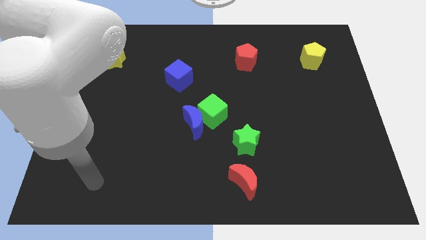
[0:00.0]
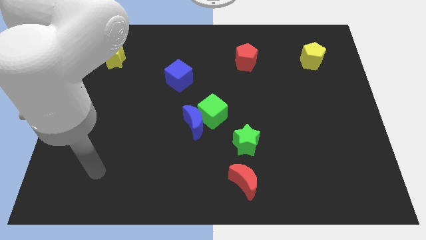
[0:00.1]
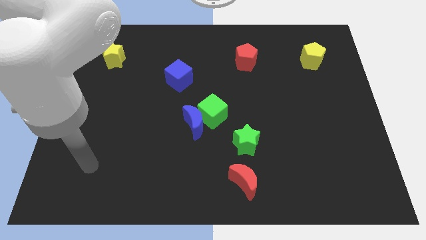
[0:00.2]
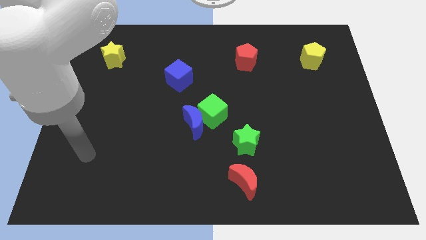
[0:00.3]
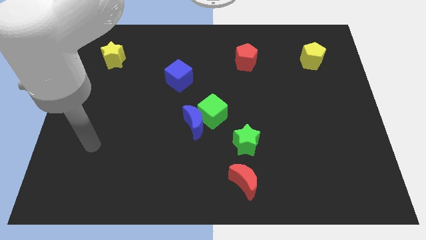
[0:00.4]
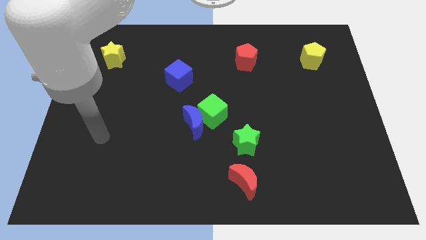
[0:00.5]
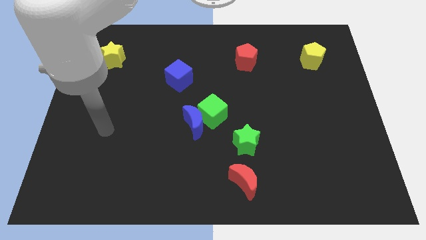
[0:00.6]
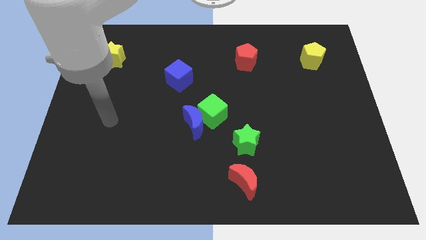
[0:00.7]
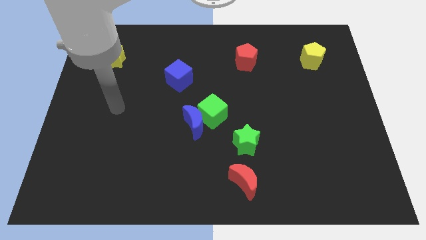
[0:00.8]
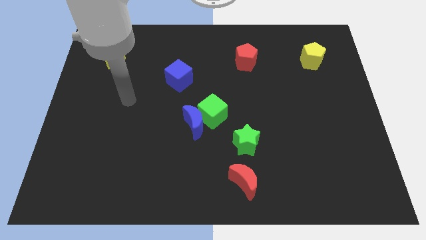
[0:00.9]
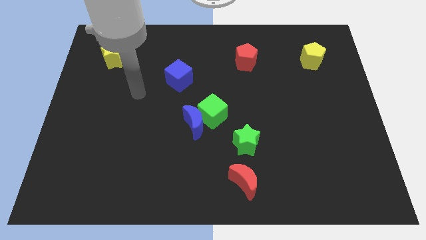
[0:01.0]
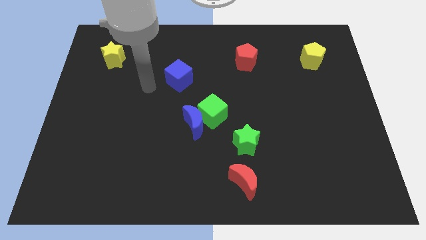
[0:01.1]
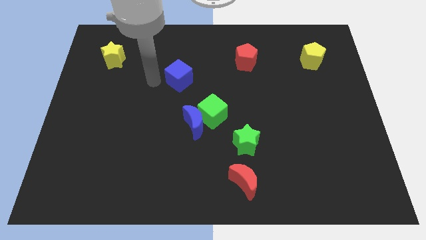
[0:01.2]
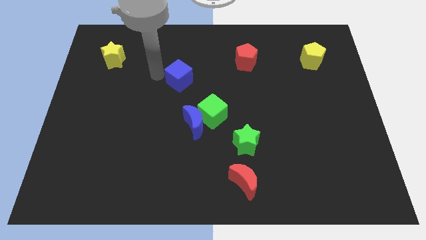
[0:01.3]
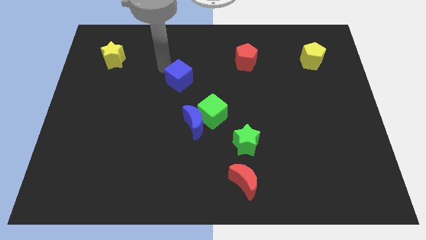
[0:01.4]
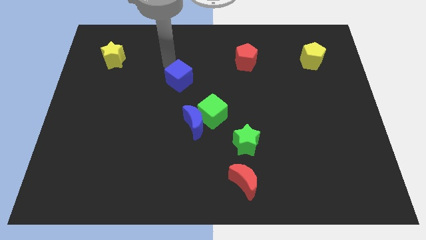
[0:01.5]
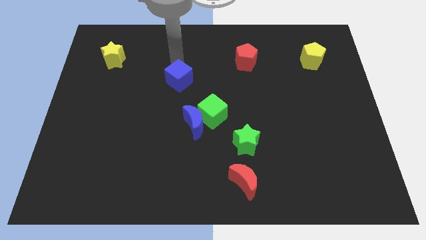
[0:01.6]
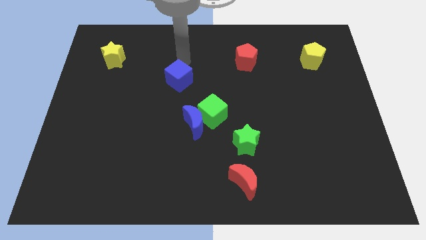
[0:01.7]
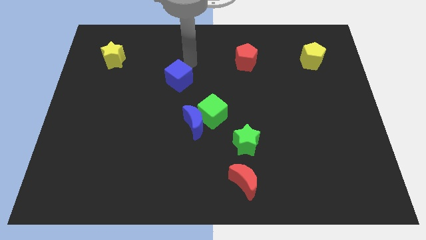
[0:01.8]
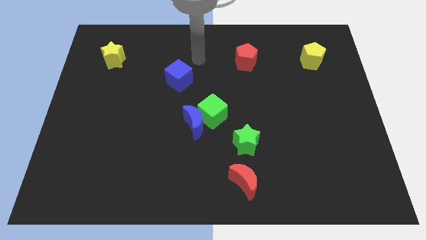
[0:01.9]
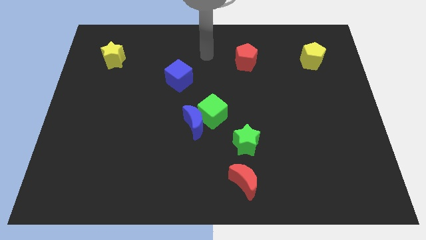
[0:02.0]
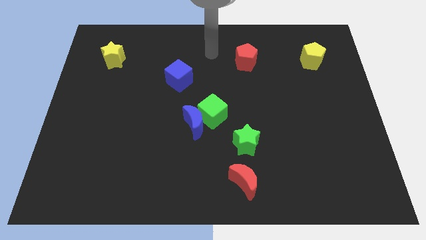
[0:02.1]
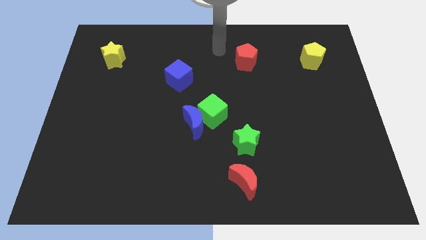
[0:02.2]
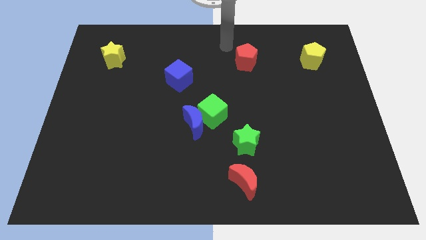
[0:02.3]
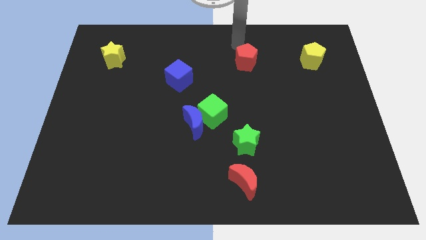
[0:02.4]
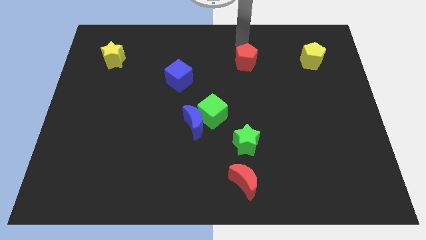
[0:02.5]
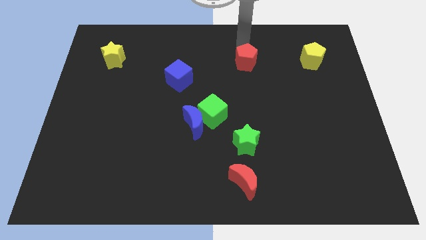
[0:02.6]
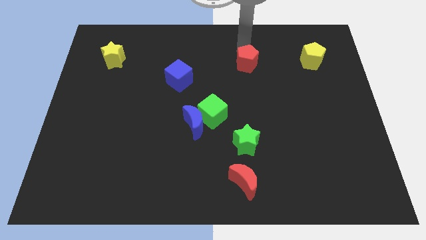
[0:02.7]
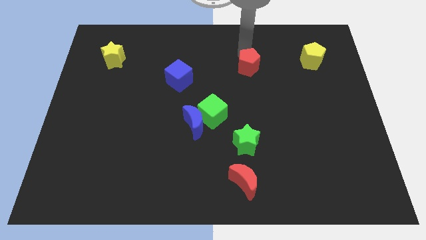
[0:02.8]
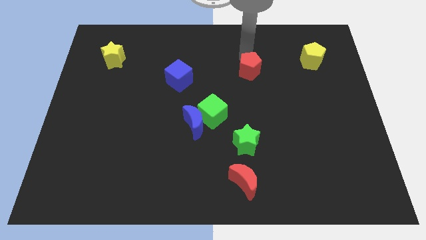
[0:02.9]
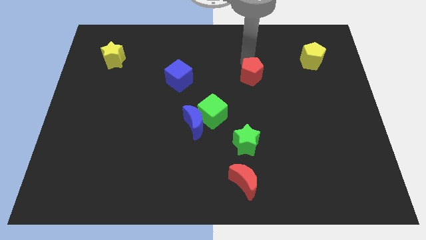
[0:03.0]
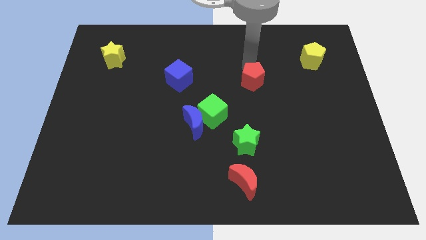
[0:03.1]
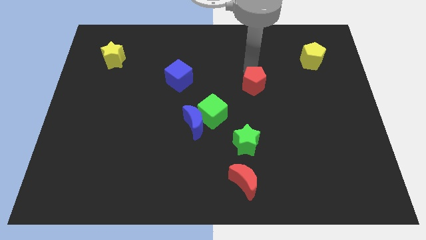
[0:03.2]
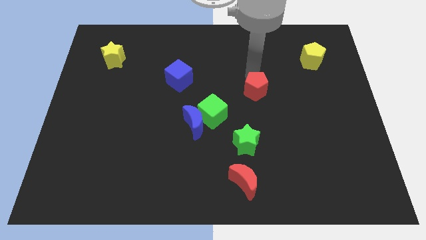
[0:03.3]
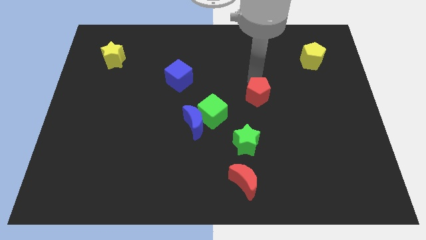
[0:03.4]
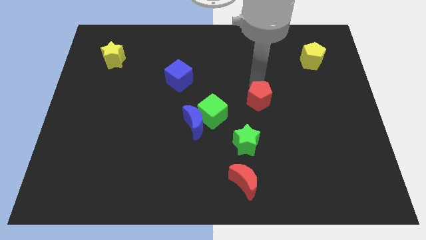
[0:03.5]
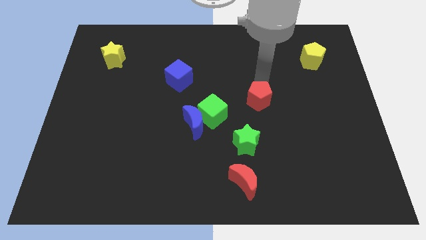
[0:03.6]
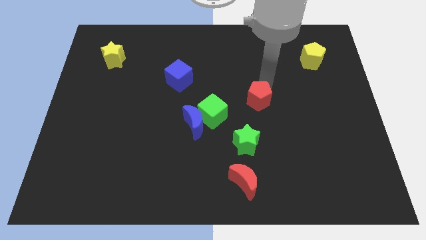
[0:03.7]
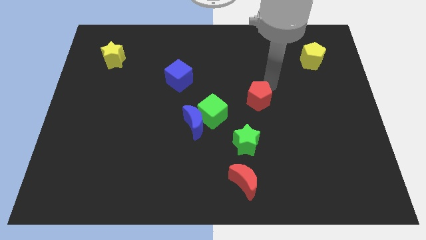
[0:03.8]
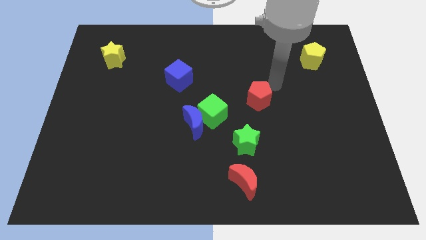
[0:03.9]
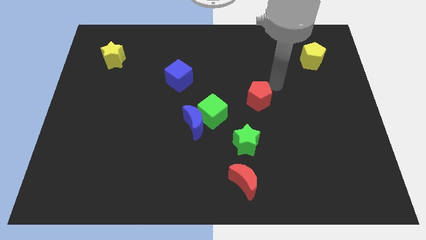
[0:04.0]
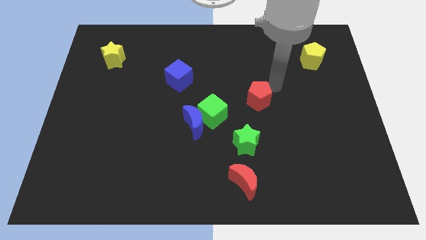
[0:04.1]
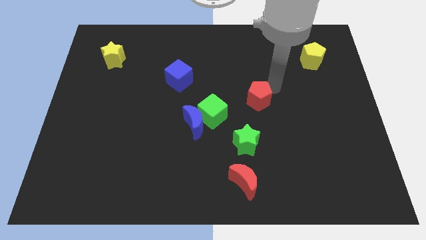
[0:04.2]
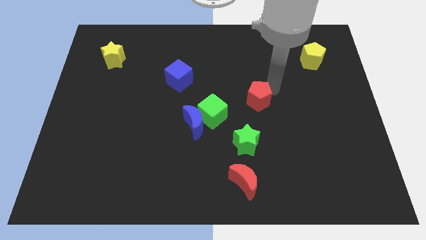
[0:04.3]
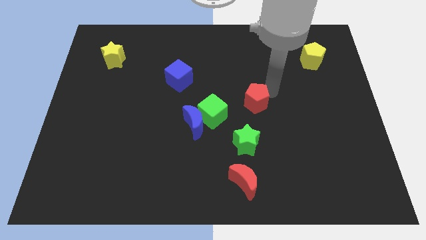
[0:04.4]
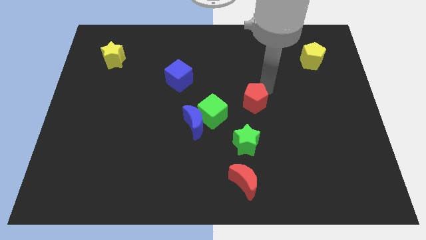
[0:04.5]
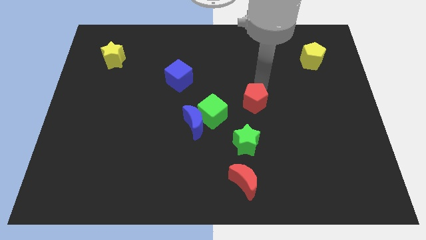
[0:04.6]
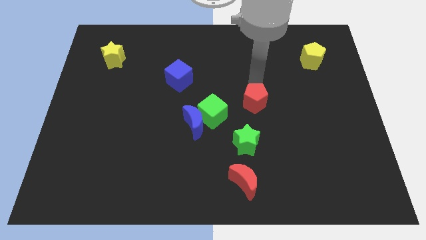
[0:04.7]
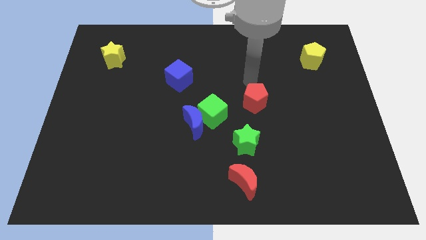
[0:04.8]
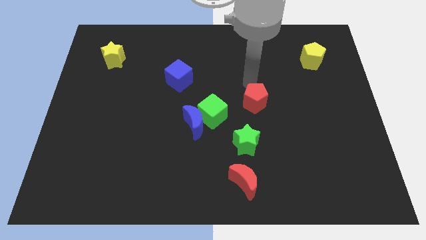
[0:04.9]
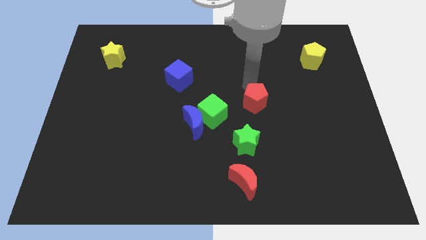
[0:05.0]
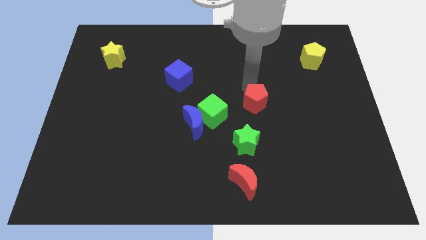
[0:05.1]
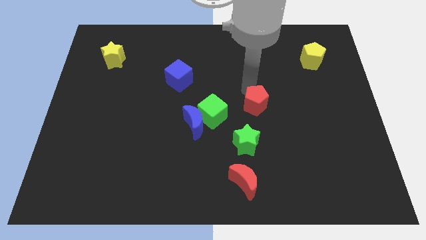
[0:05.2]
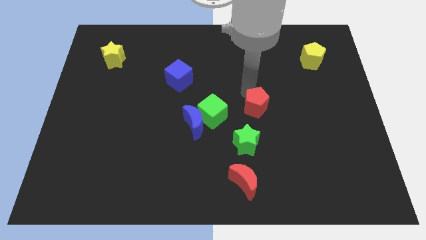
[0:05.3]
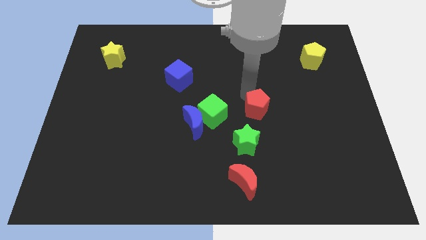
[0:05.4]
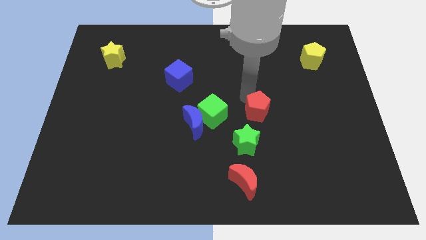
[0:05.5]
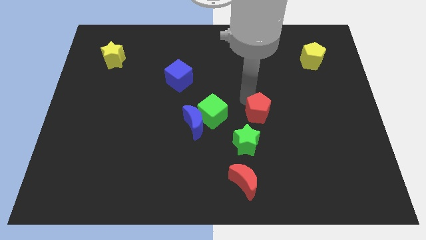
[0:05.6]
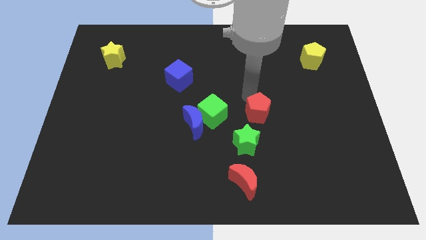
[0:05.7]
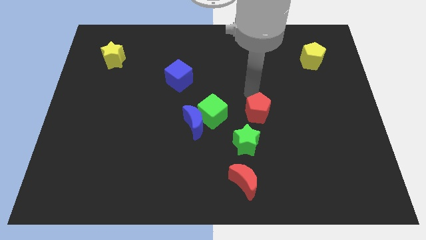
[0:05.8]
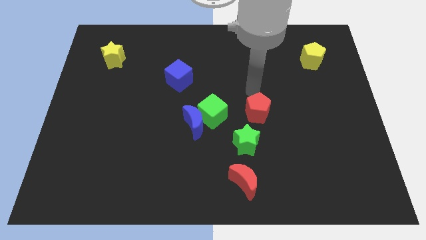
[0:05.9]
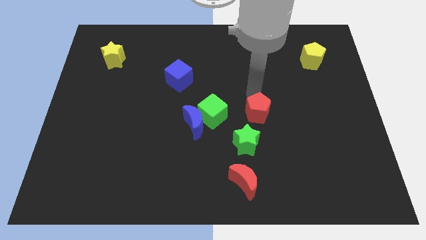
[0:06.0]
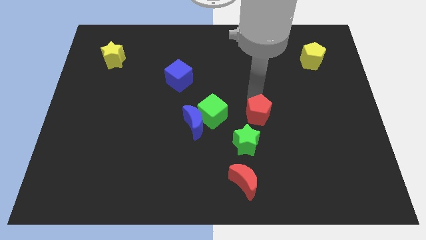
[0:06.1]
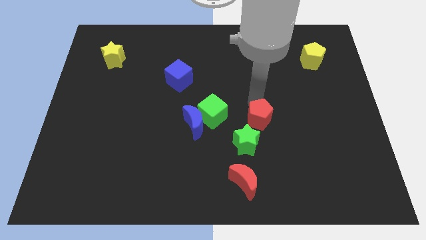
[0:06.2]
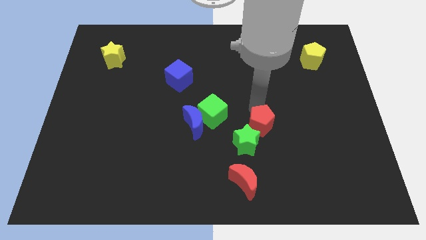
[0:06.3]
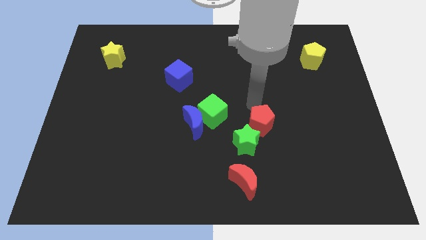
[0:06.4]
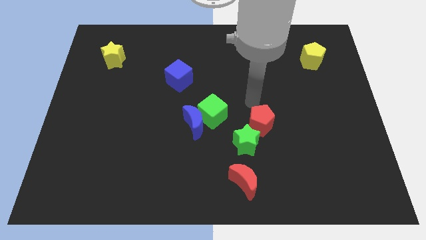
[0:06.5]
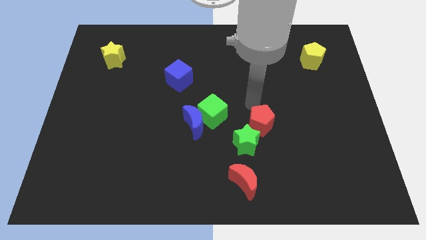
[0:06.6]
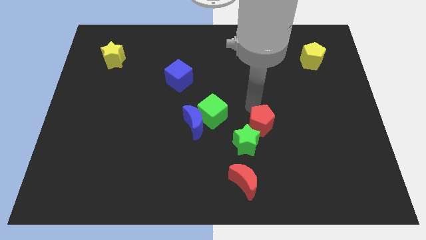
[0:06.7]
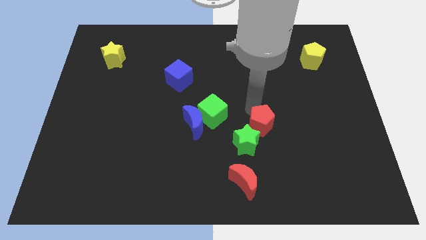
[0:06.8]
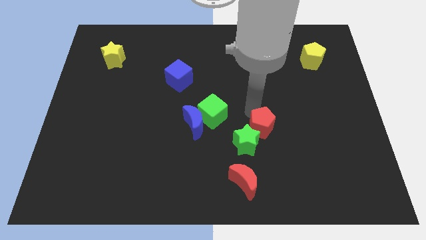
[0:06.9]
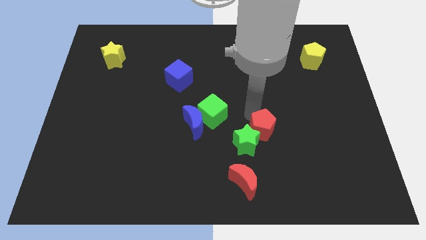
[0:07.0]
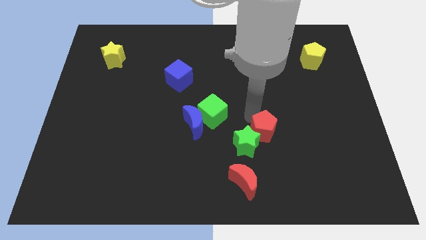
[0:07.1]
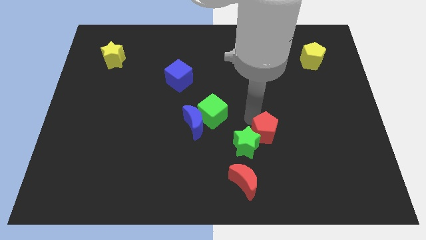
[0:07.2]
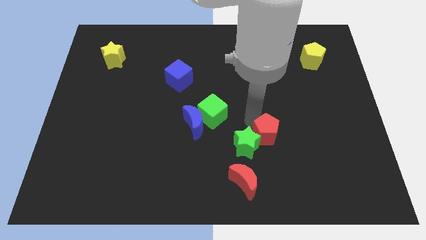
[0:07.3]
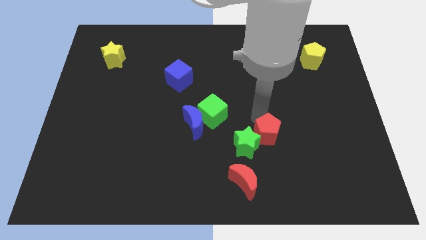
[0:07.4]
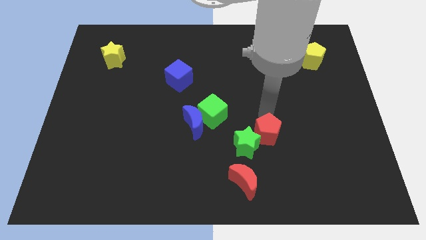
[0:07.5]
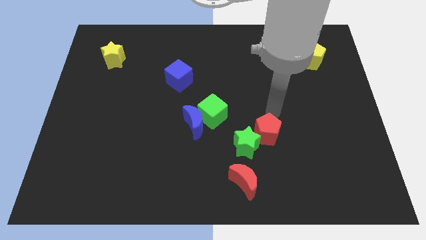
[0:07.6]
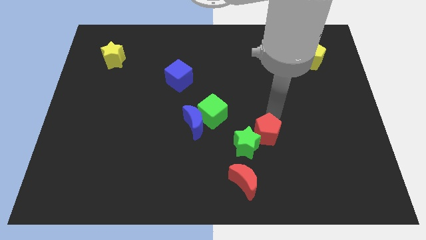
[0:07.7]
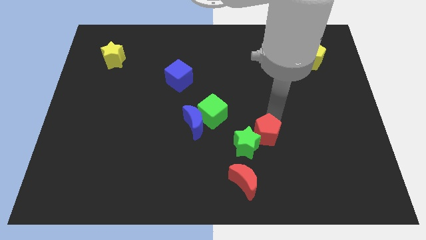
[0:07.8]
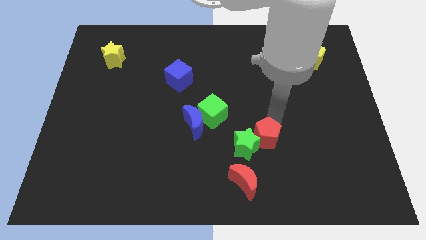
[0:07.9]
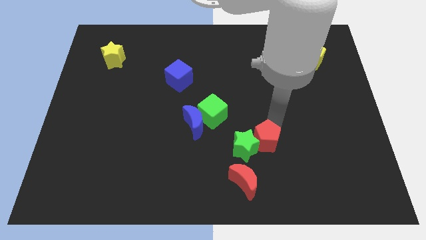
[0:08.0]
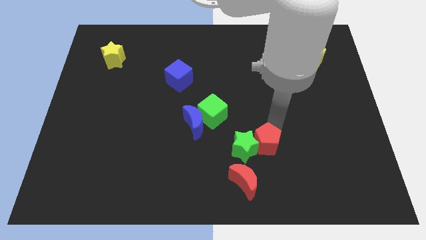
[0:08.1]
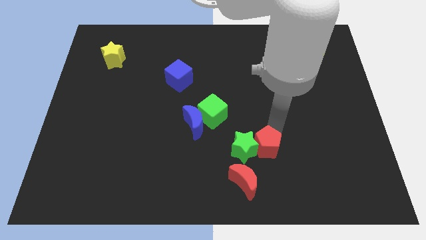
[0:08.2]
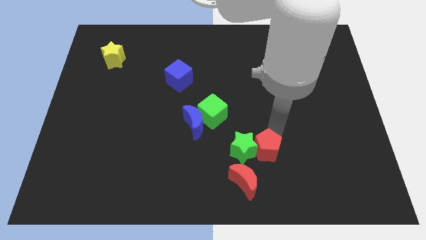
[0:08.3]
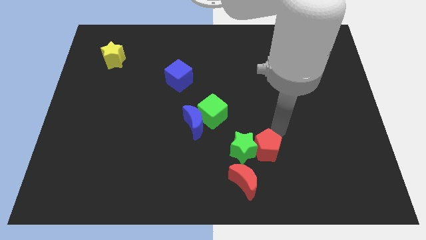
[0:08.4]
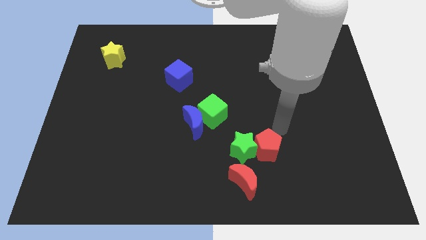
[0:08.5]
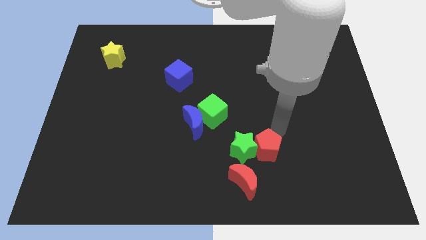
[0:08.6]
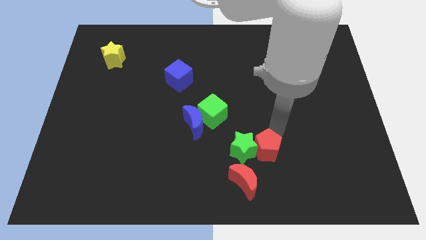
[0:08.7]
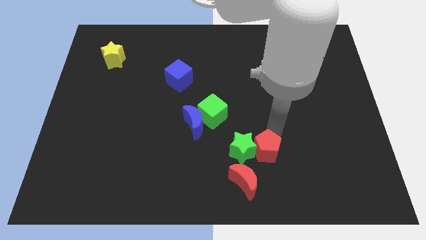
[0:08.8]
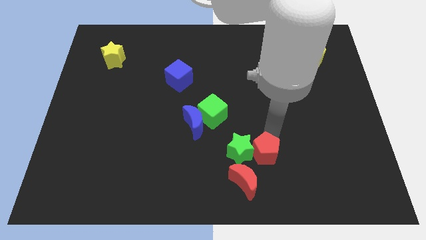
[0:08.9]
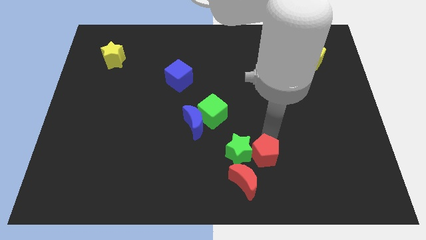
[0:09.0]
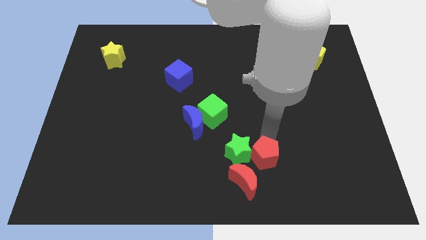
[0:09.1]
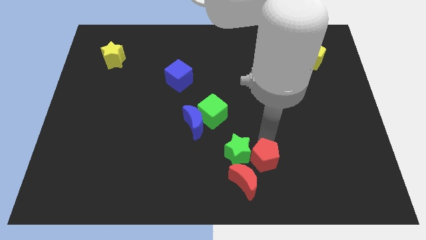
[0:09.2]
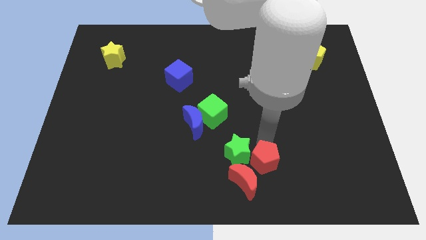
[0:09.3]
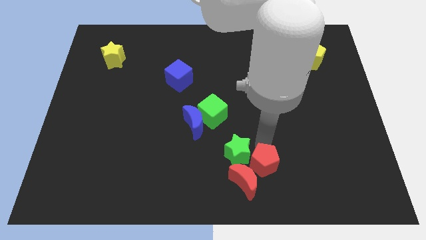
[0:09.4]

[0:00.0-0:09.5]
push the red pentagon towards the red moon
